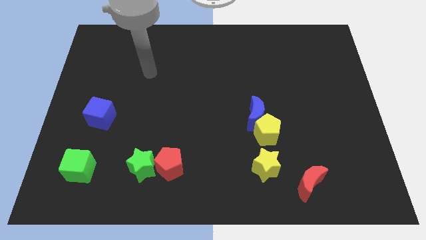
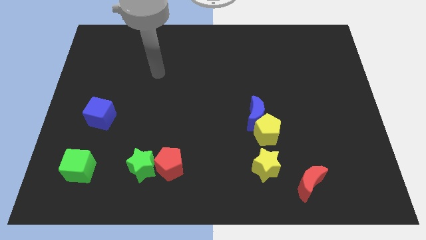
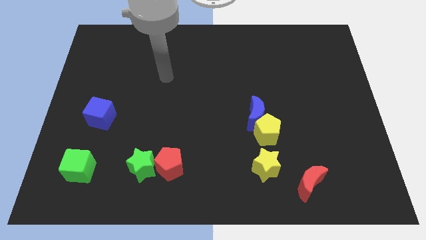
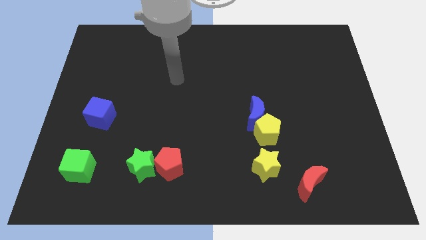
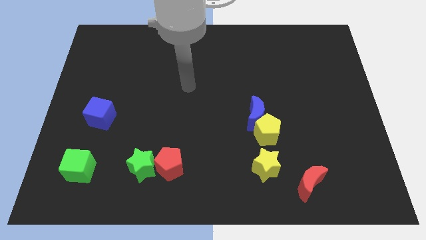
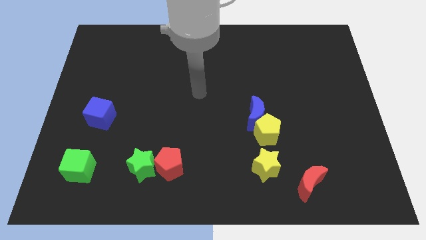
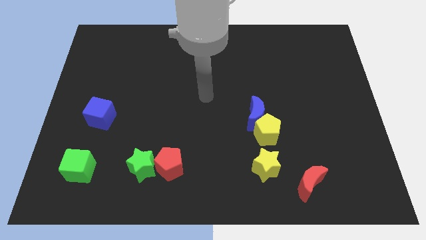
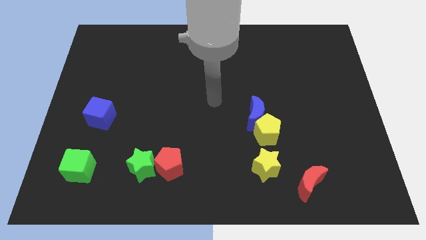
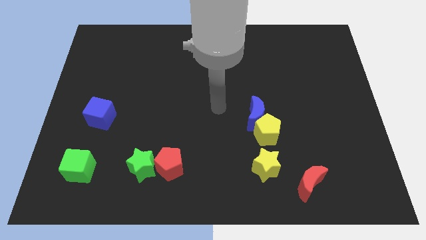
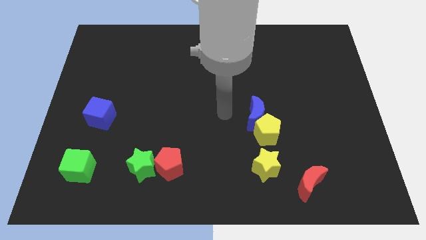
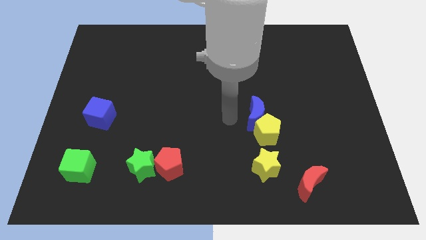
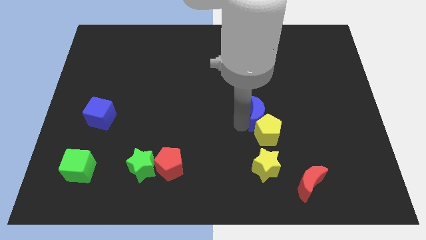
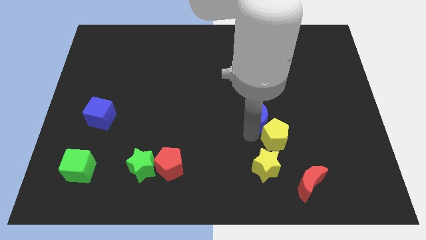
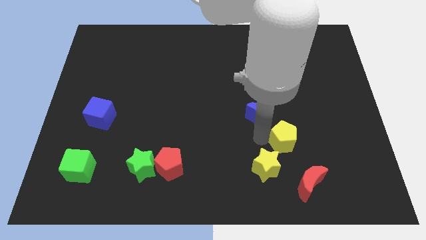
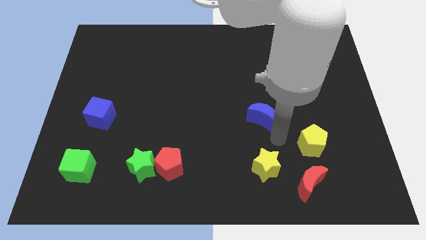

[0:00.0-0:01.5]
separate the blue moon from the yellow pentagon

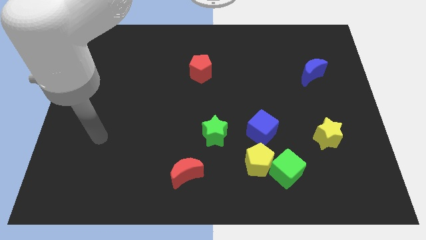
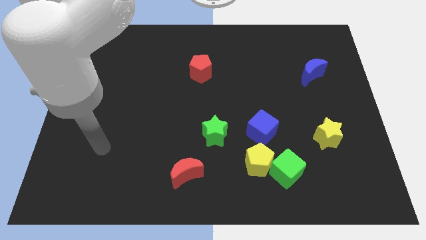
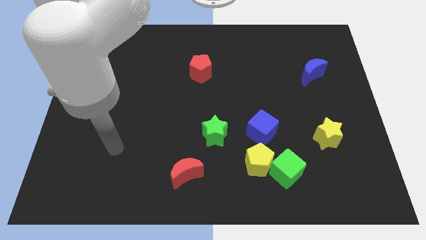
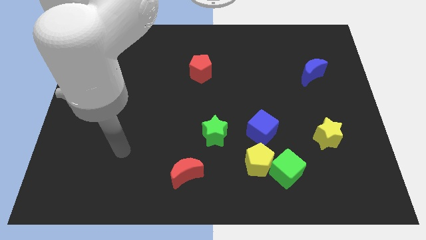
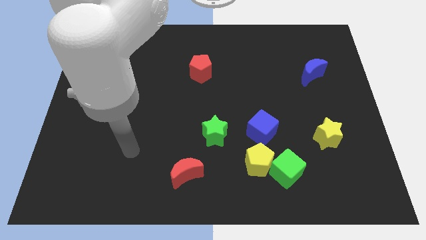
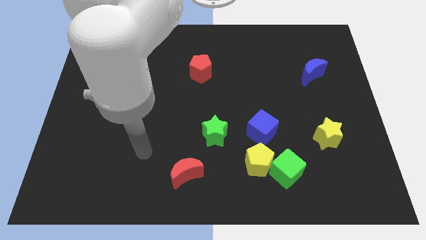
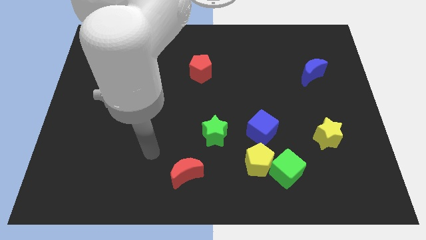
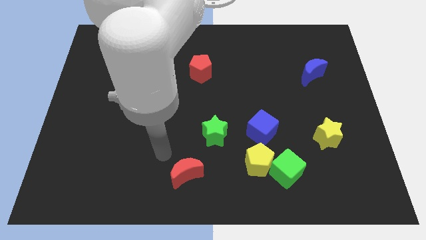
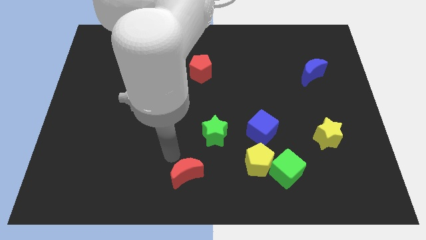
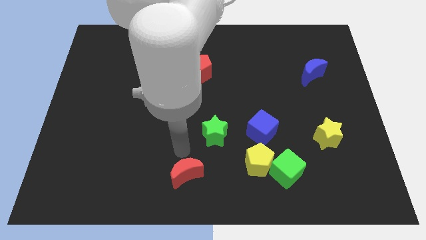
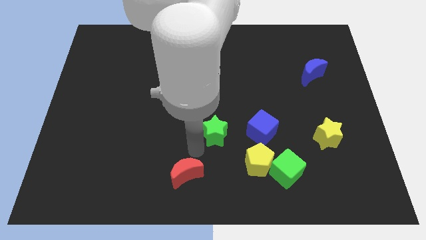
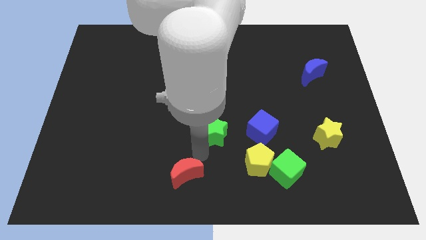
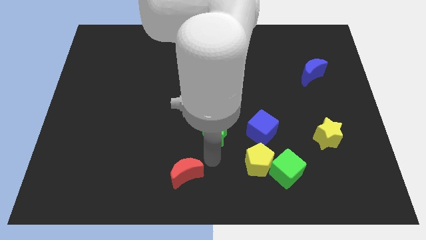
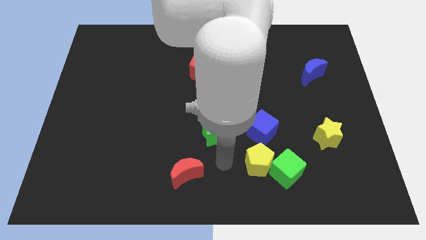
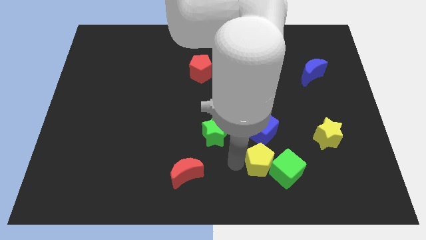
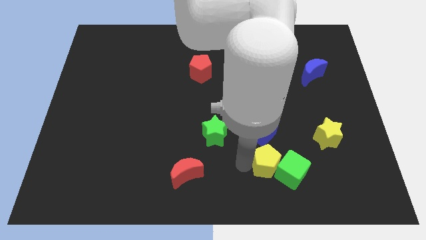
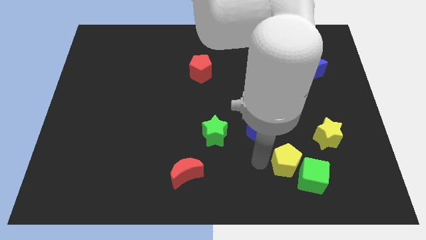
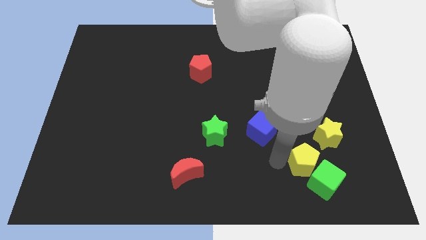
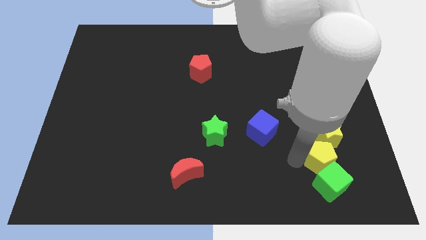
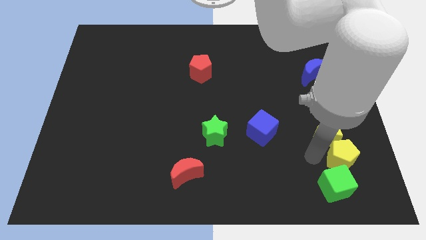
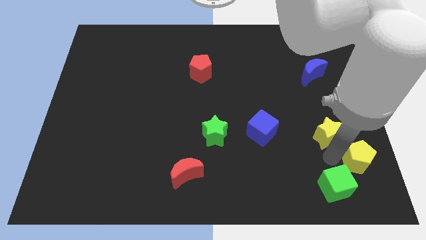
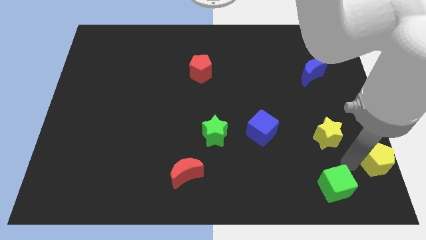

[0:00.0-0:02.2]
move the green cube away from the yellow pentagon

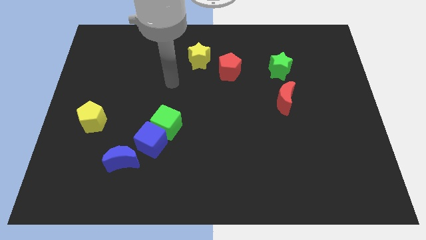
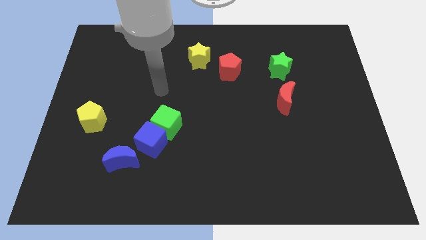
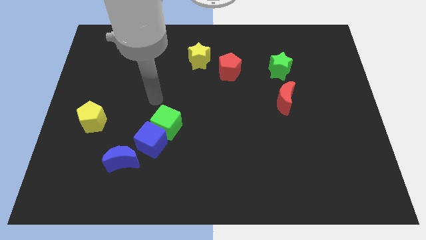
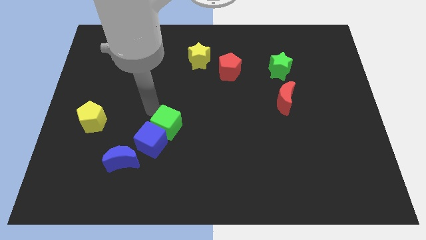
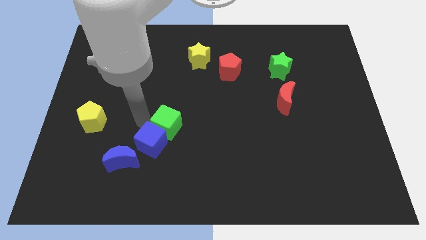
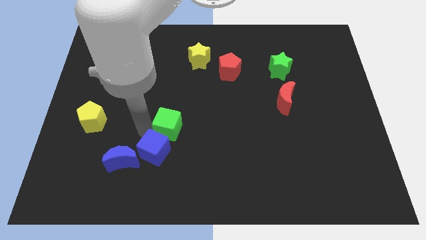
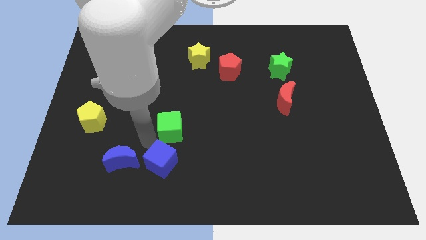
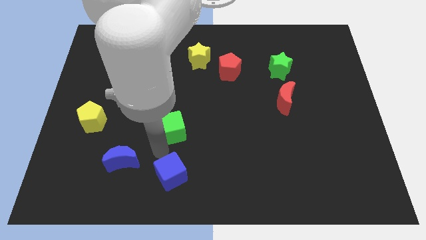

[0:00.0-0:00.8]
move the green cube away from the blue cube

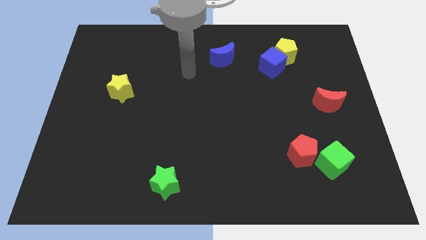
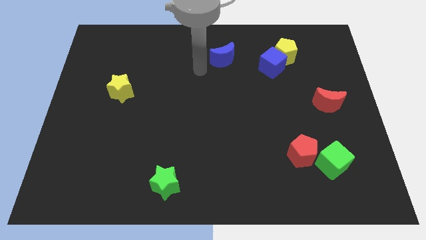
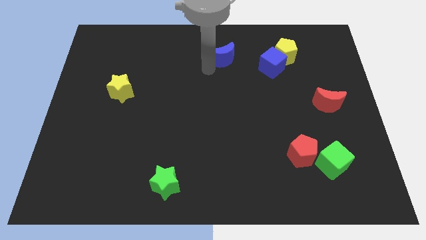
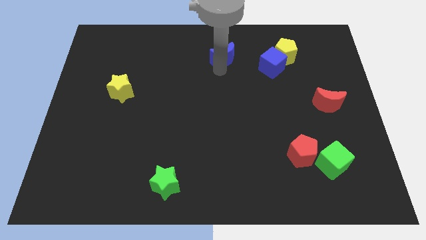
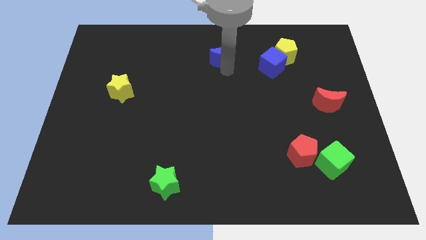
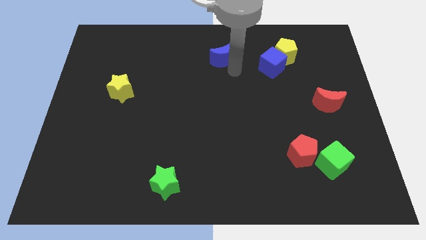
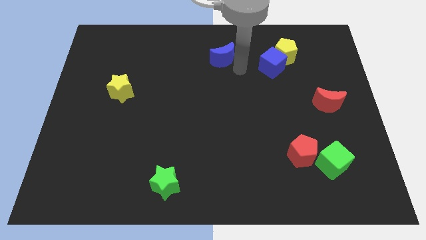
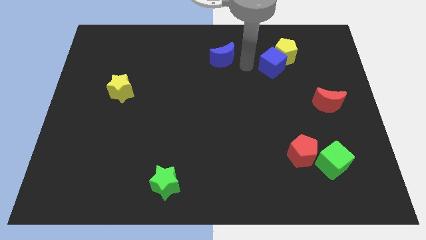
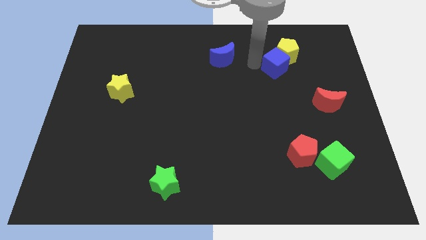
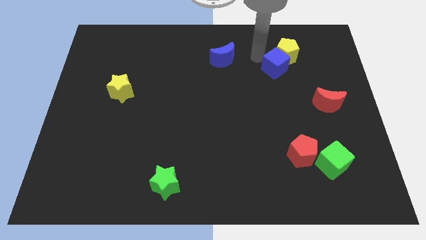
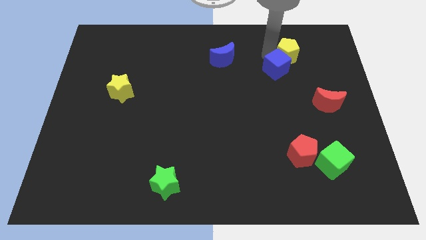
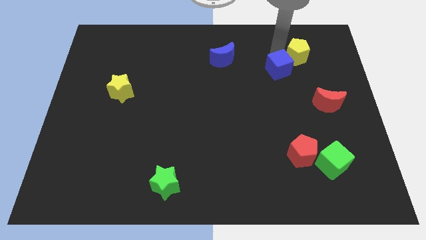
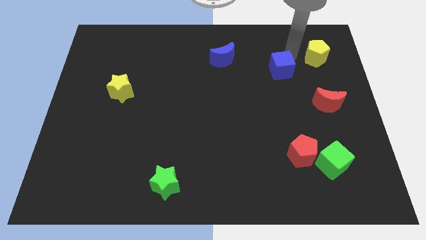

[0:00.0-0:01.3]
pull the blue cube apart from the yellow pentagon

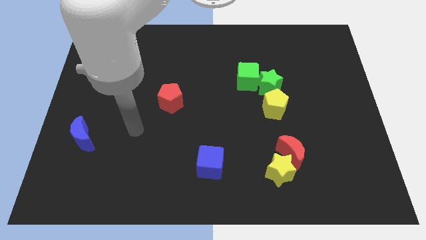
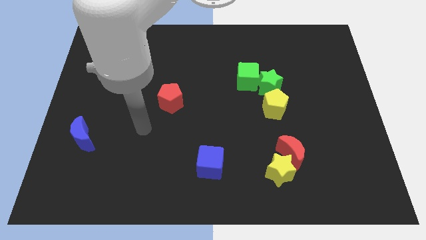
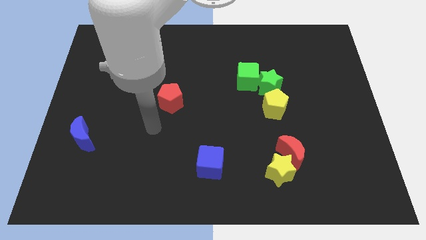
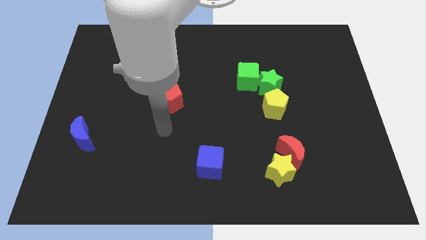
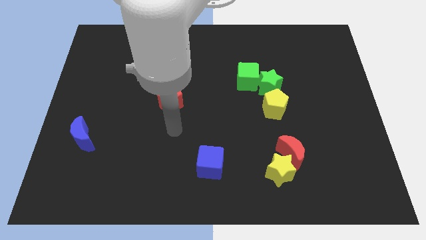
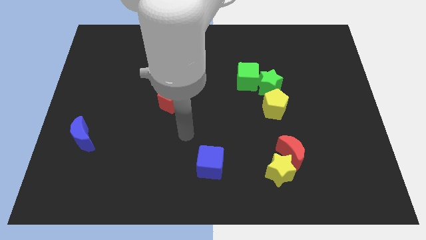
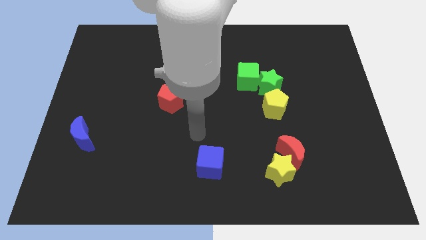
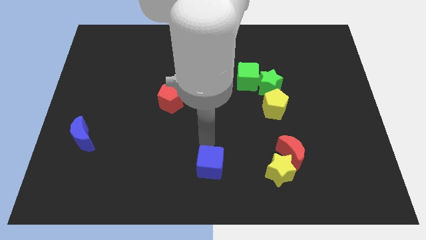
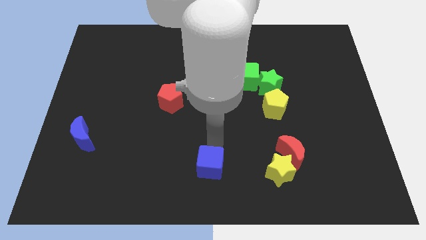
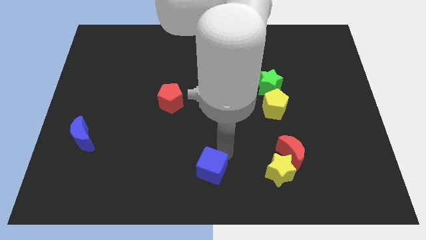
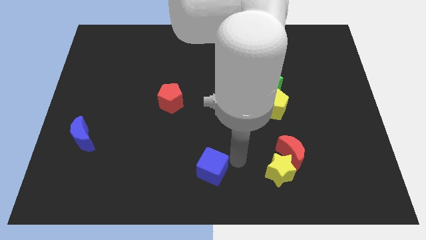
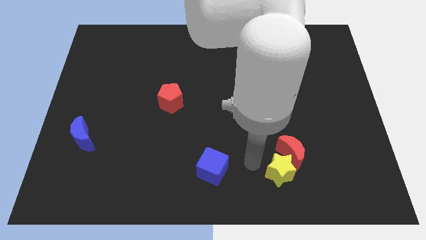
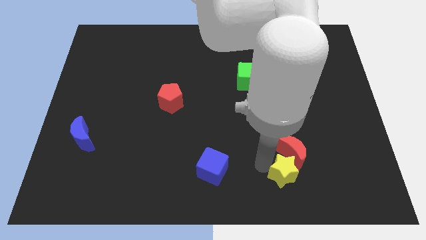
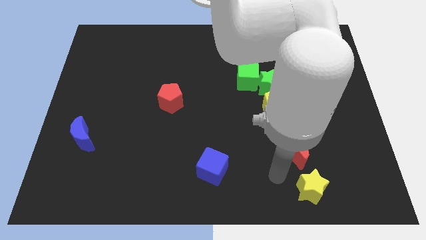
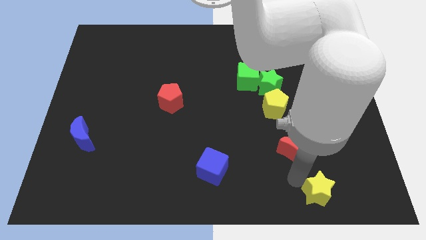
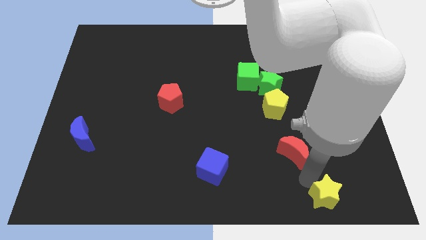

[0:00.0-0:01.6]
move the red moon away from the yellow star

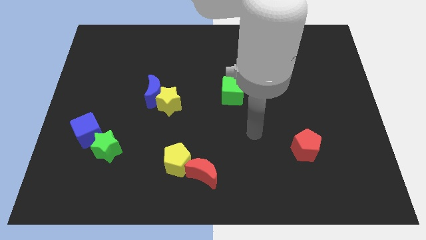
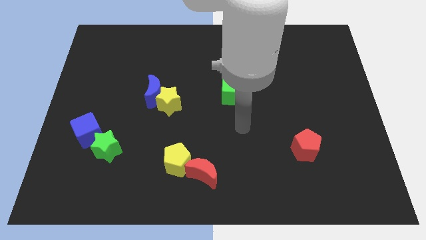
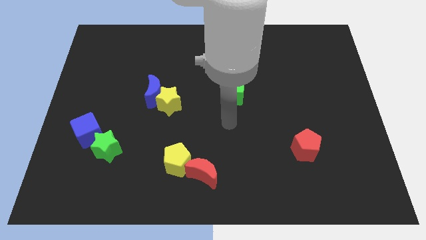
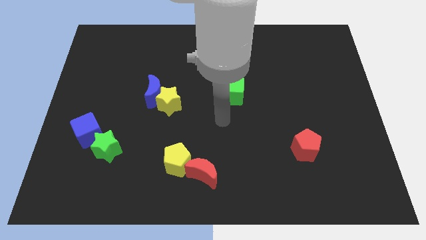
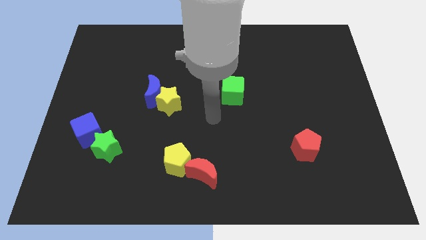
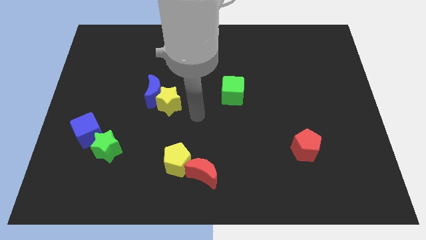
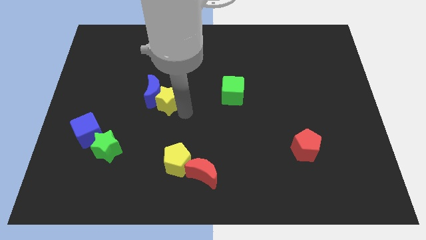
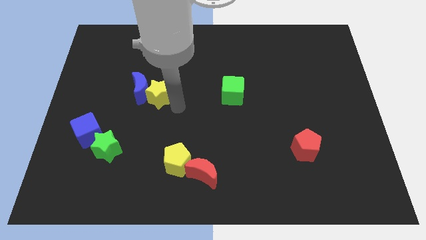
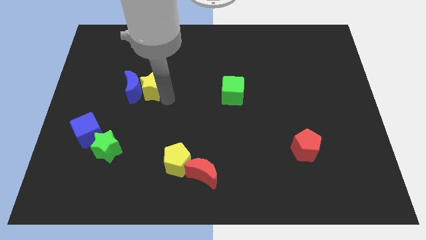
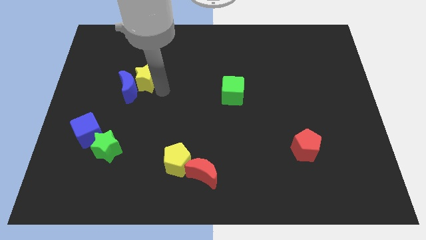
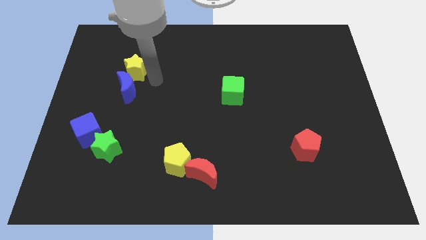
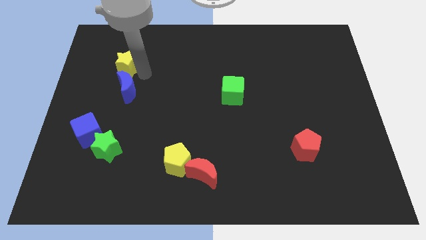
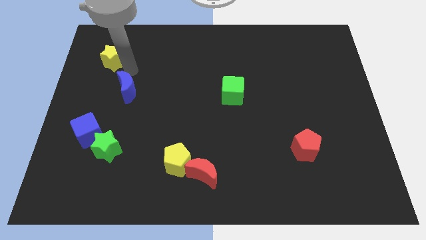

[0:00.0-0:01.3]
move the blue moon away from the yellow star

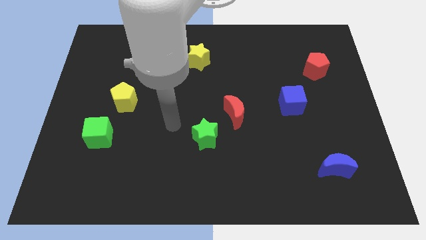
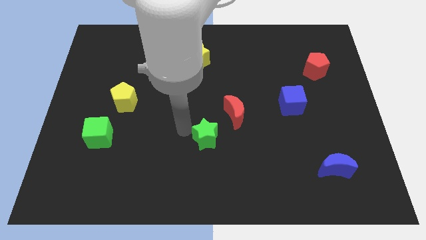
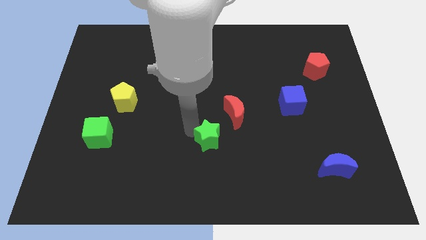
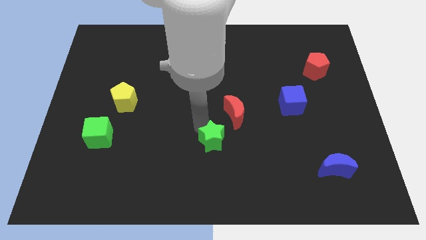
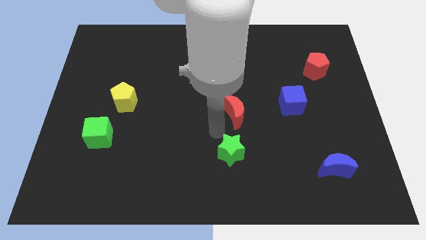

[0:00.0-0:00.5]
move the red moon away from the green star

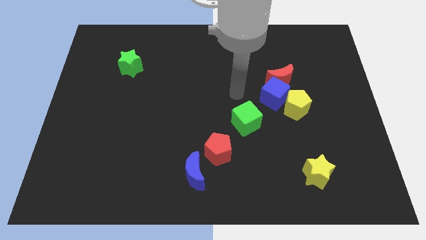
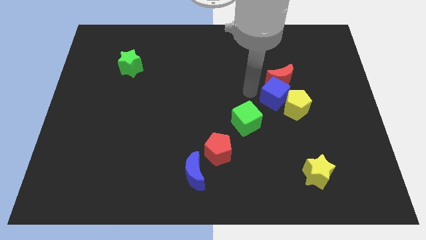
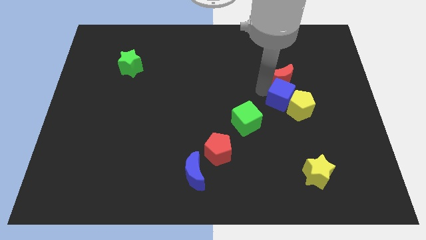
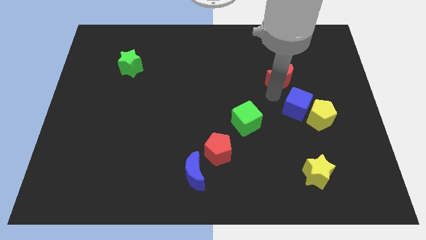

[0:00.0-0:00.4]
separate the red moon from the blue cube and yellow pentagon
